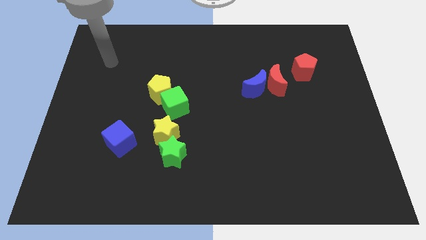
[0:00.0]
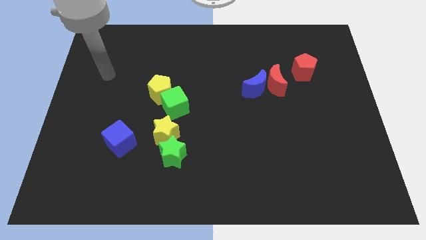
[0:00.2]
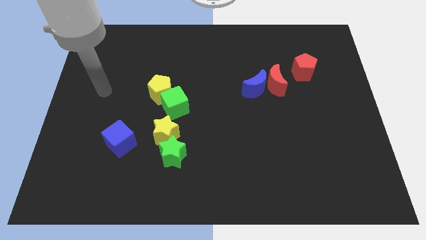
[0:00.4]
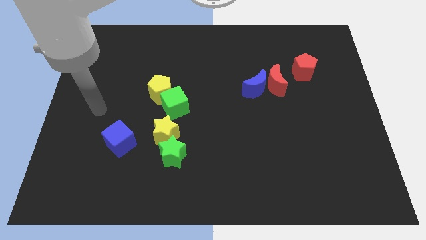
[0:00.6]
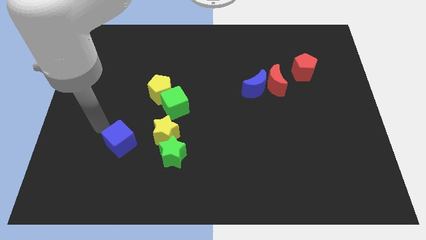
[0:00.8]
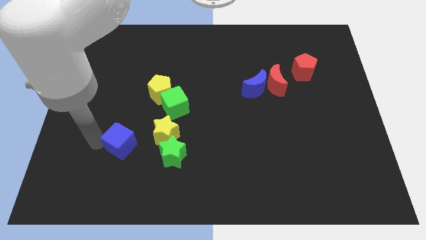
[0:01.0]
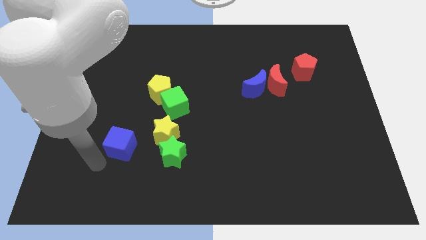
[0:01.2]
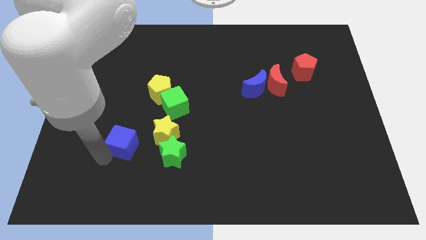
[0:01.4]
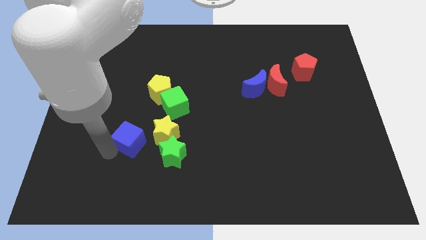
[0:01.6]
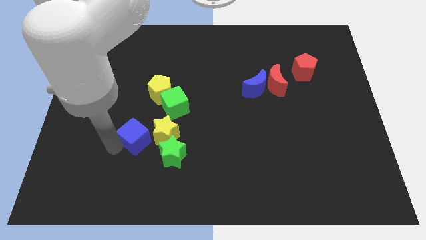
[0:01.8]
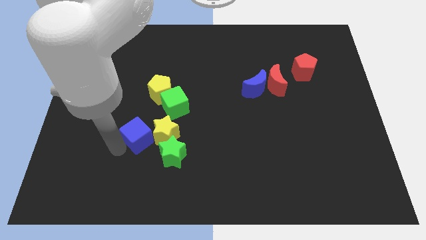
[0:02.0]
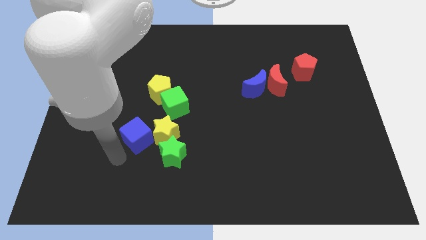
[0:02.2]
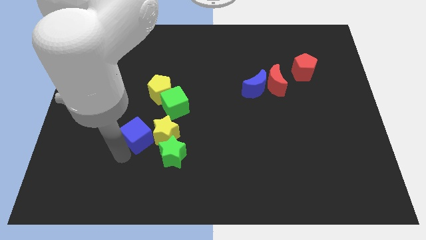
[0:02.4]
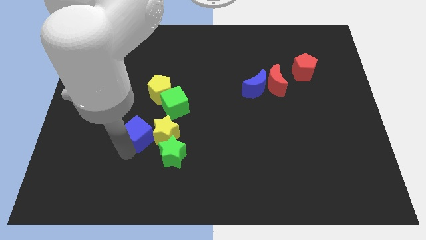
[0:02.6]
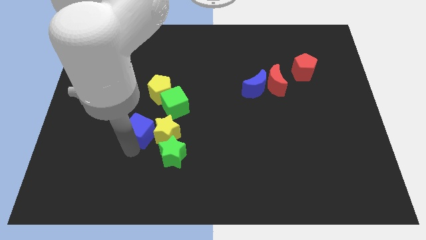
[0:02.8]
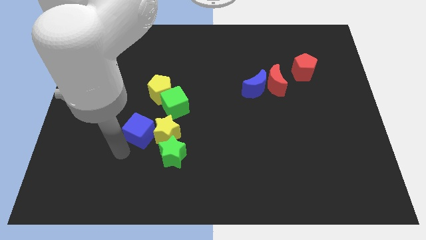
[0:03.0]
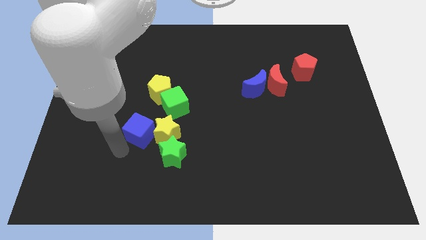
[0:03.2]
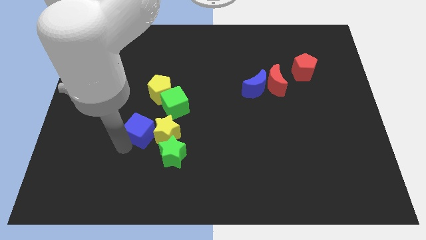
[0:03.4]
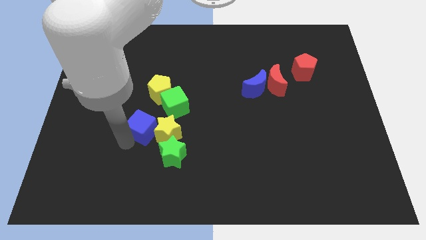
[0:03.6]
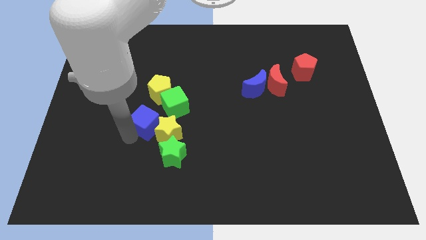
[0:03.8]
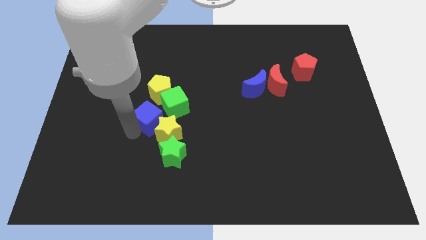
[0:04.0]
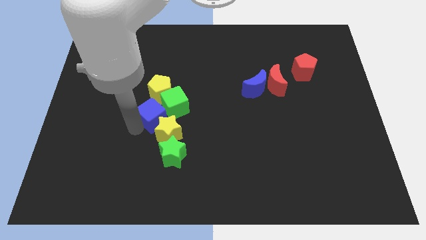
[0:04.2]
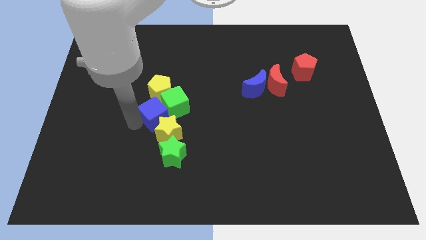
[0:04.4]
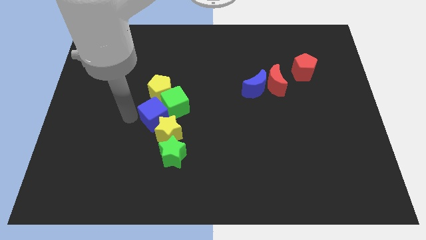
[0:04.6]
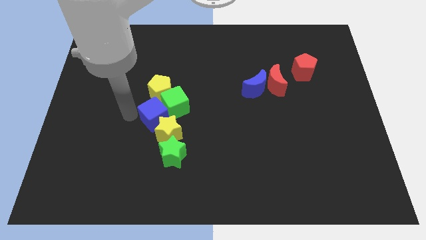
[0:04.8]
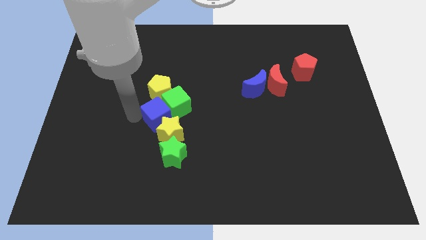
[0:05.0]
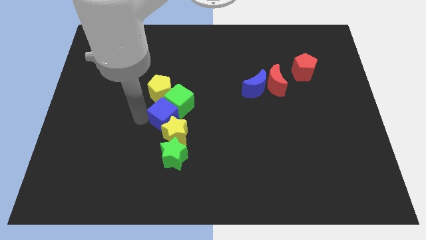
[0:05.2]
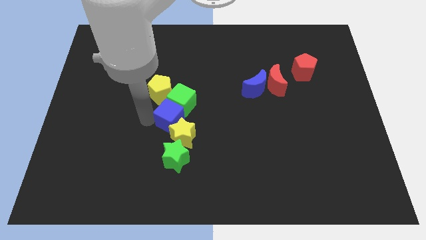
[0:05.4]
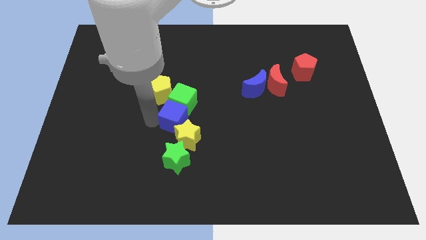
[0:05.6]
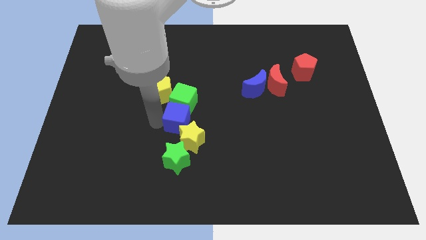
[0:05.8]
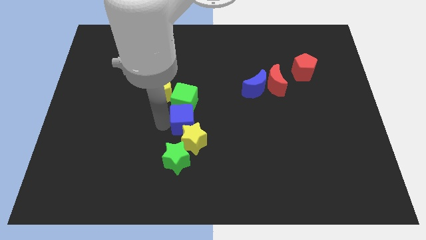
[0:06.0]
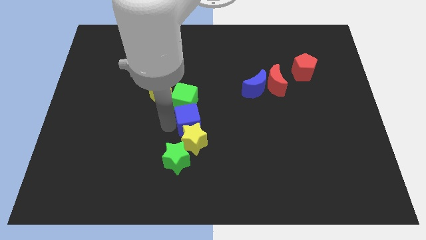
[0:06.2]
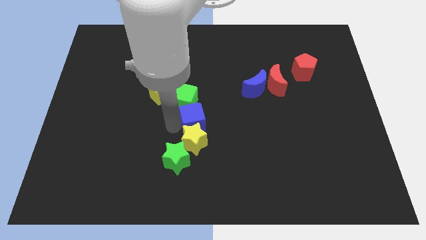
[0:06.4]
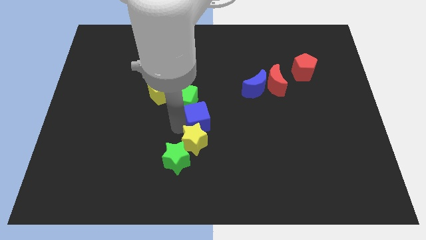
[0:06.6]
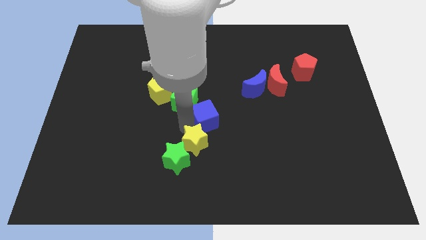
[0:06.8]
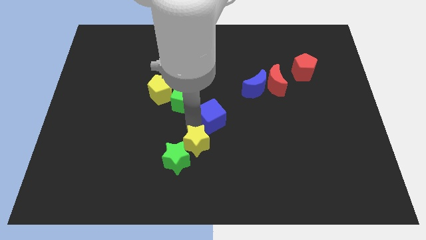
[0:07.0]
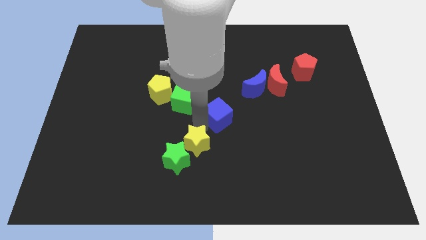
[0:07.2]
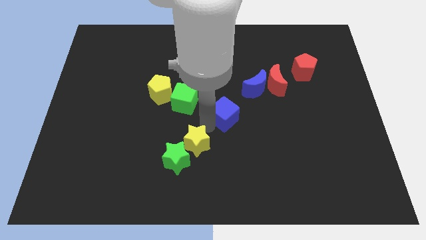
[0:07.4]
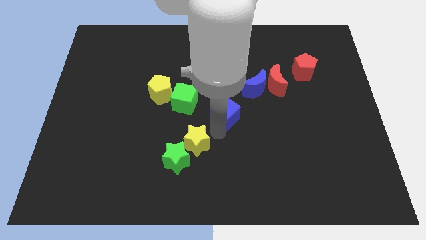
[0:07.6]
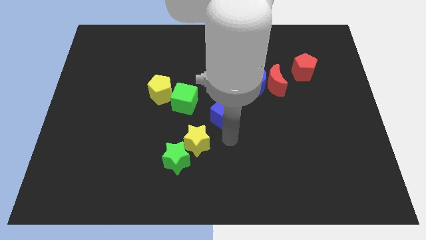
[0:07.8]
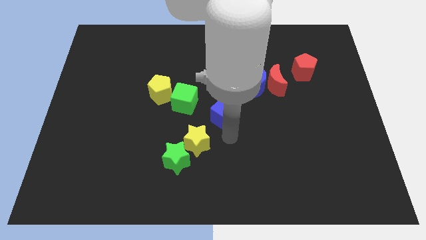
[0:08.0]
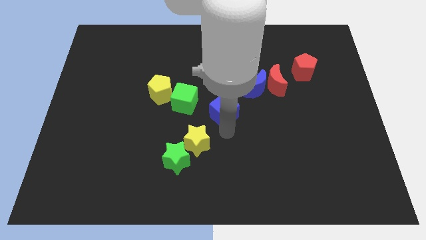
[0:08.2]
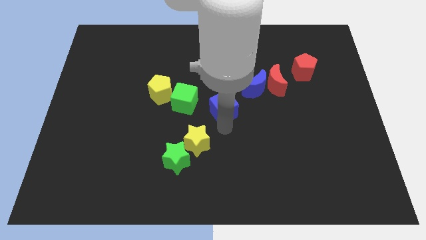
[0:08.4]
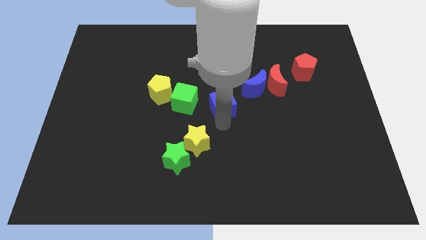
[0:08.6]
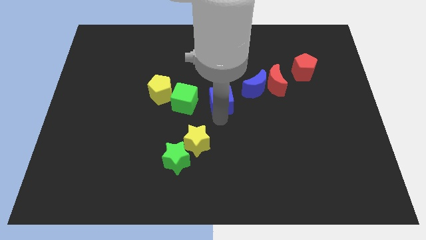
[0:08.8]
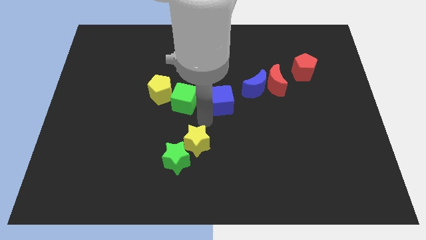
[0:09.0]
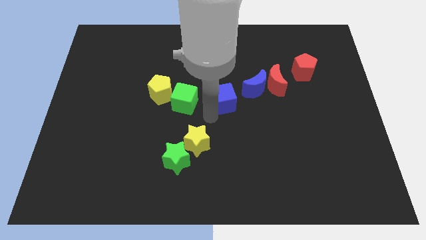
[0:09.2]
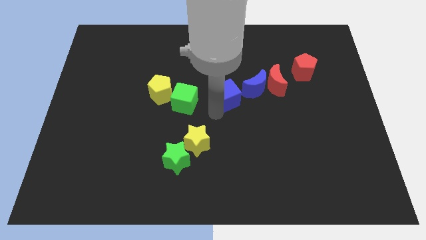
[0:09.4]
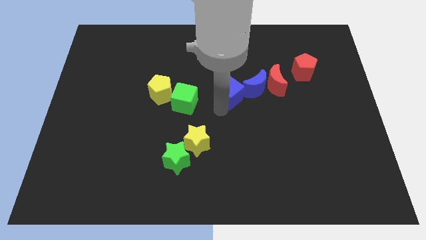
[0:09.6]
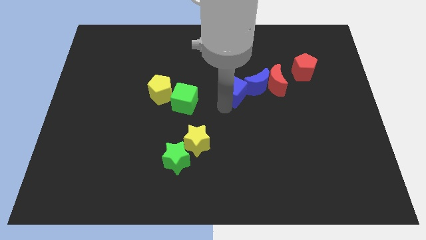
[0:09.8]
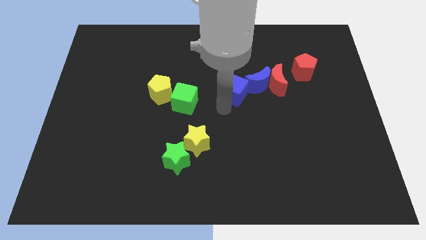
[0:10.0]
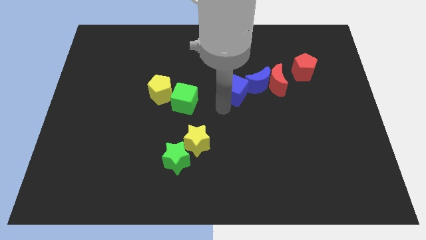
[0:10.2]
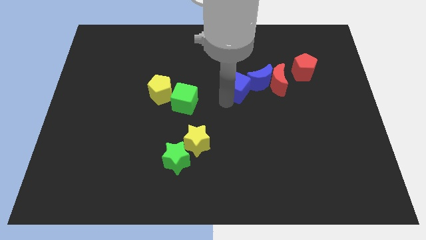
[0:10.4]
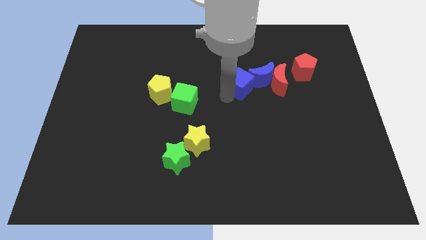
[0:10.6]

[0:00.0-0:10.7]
move the blue cube to the blue moon
